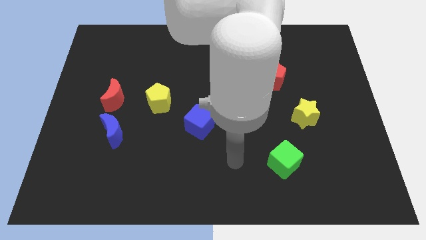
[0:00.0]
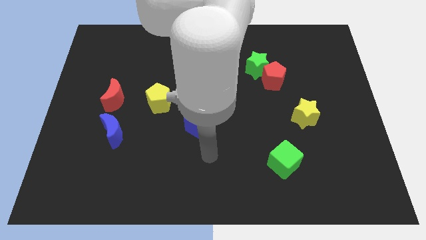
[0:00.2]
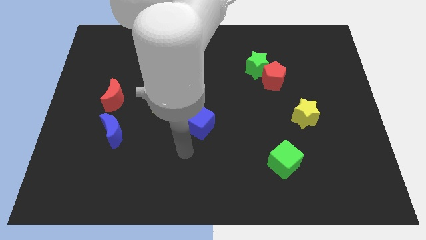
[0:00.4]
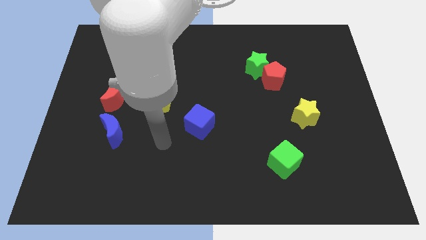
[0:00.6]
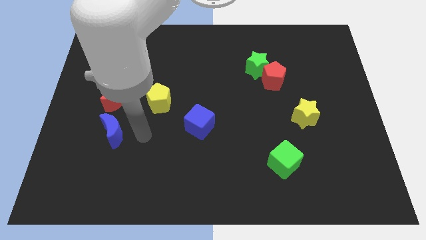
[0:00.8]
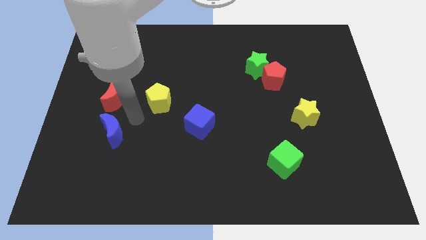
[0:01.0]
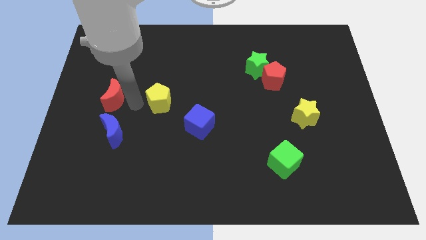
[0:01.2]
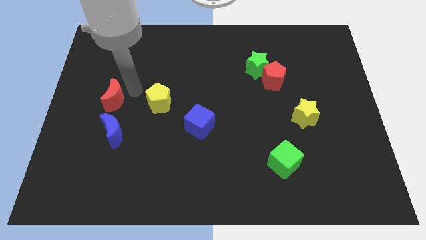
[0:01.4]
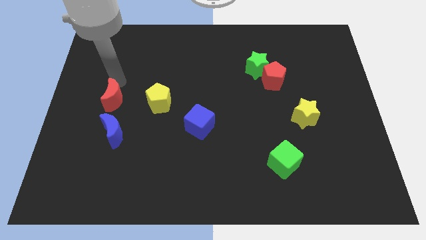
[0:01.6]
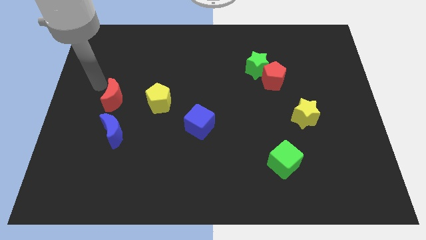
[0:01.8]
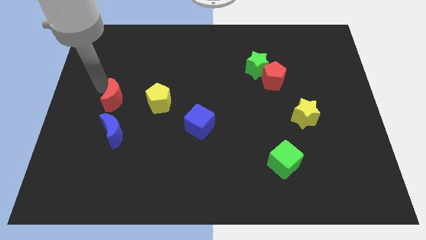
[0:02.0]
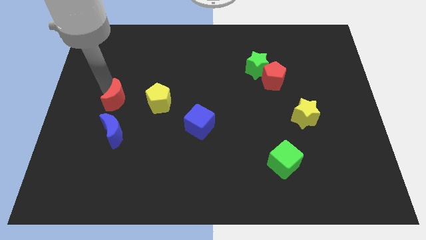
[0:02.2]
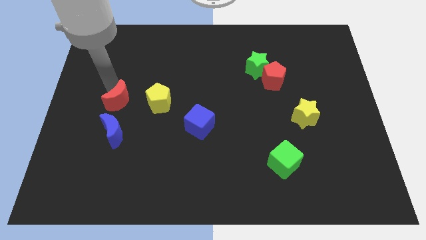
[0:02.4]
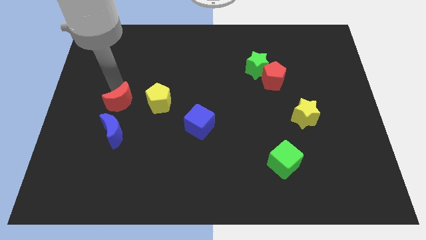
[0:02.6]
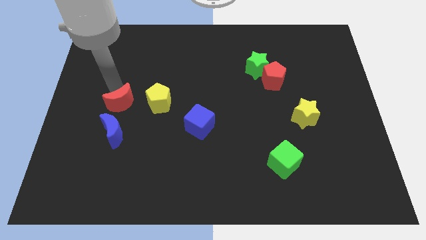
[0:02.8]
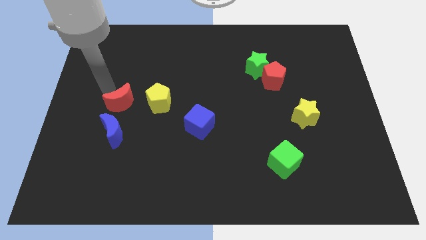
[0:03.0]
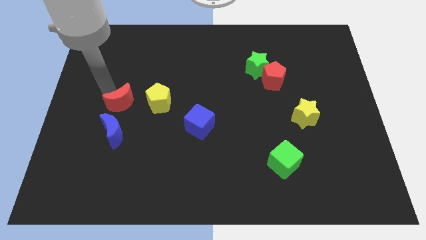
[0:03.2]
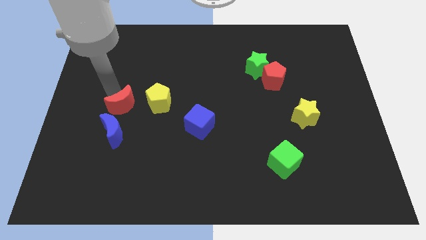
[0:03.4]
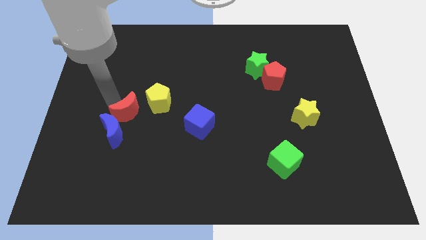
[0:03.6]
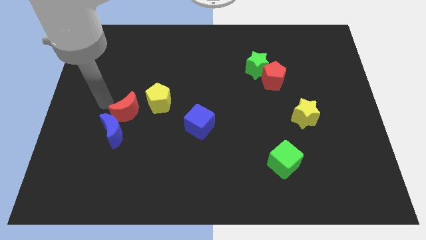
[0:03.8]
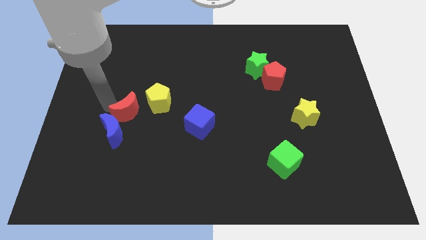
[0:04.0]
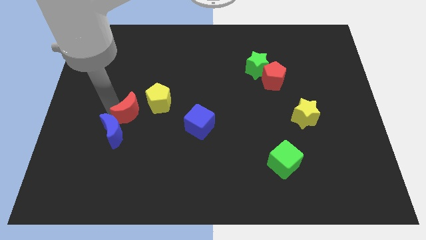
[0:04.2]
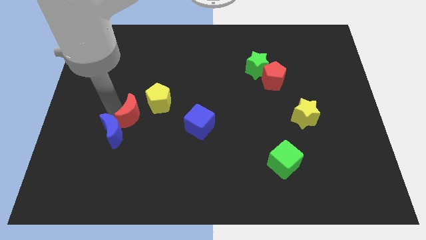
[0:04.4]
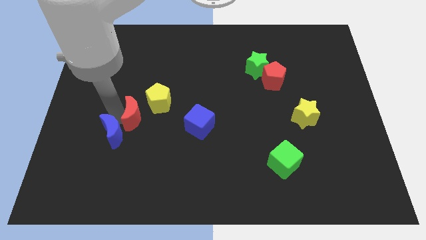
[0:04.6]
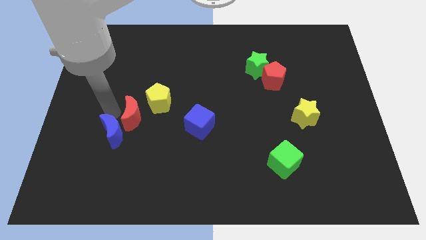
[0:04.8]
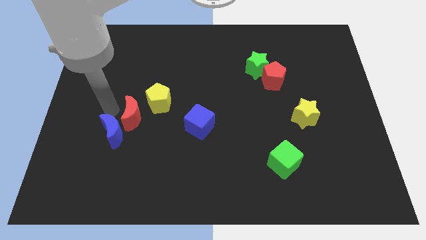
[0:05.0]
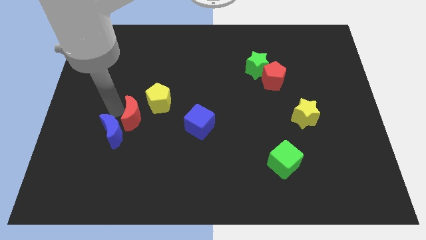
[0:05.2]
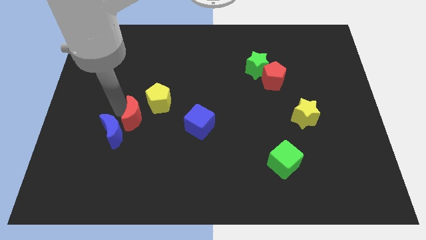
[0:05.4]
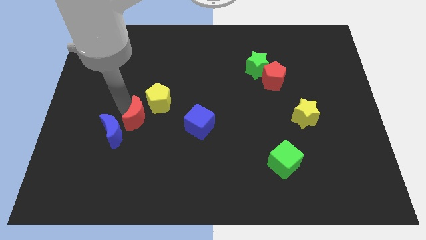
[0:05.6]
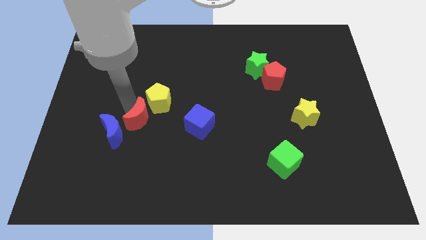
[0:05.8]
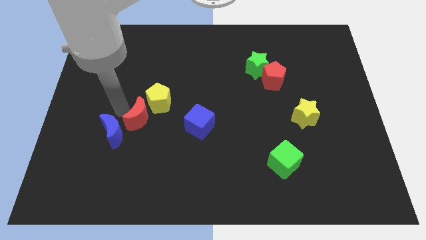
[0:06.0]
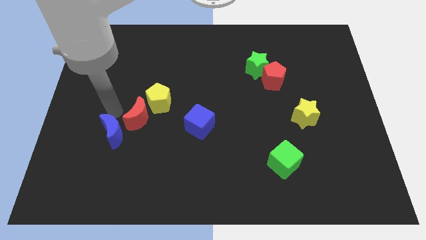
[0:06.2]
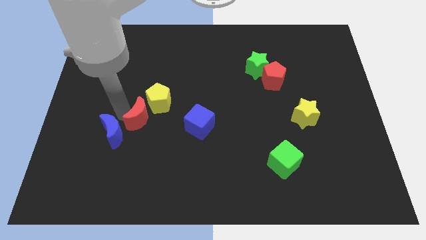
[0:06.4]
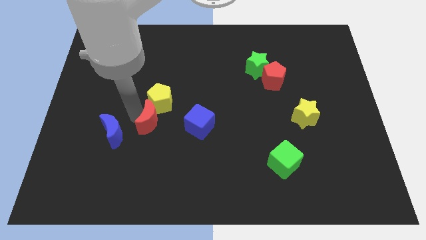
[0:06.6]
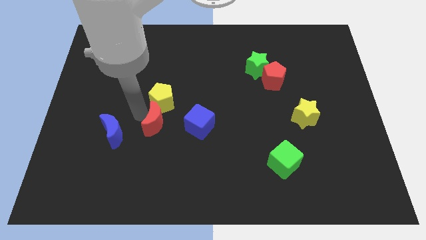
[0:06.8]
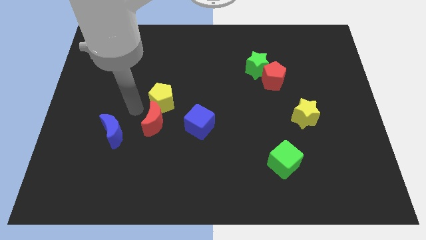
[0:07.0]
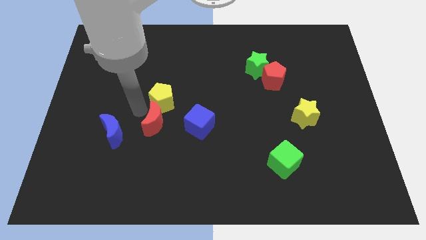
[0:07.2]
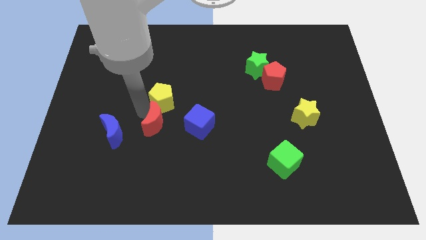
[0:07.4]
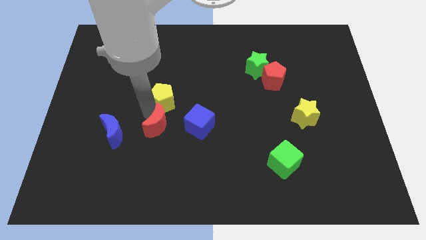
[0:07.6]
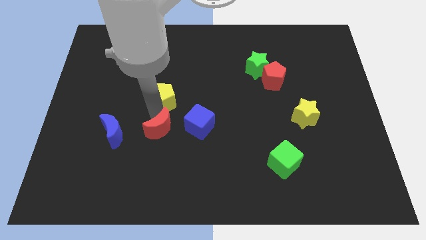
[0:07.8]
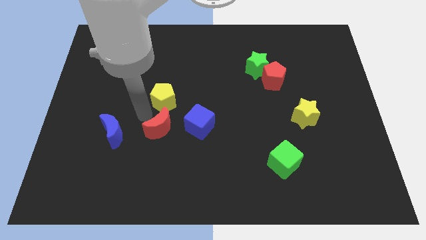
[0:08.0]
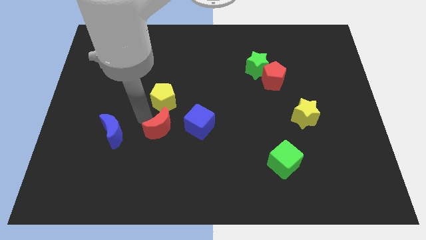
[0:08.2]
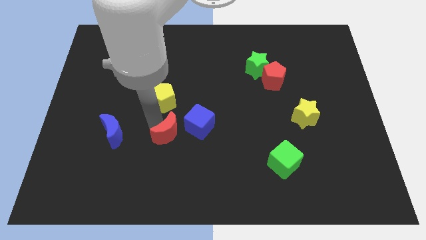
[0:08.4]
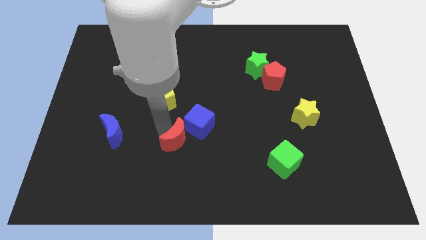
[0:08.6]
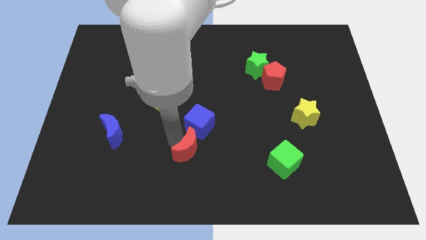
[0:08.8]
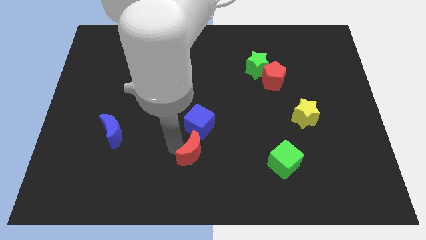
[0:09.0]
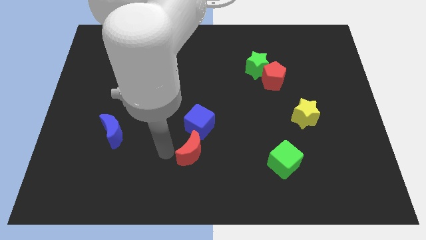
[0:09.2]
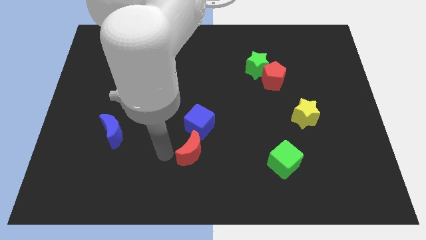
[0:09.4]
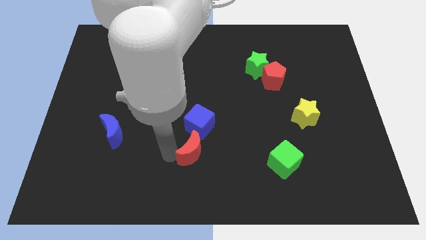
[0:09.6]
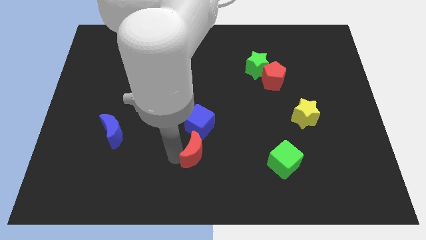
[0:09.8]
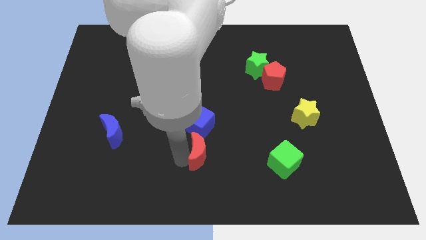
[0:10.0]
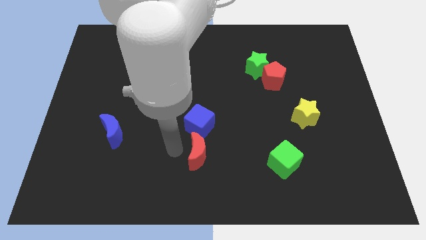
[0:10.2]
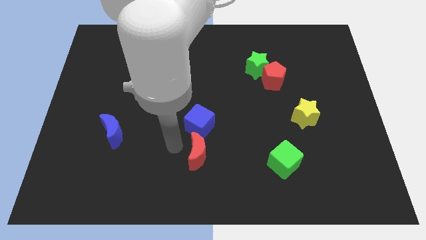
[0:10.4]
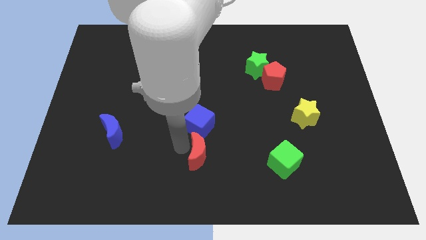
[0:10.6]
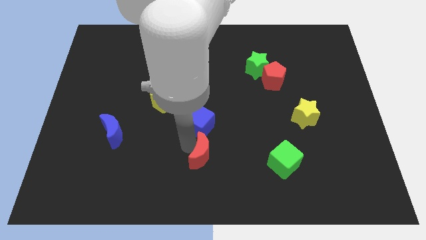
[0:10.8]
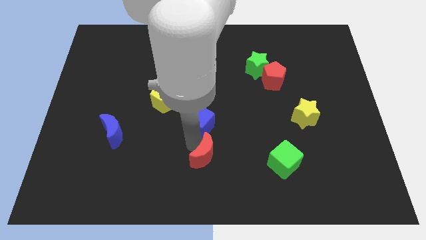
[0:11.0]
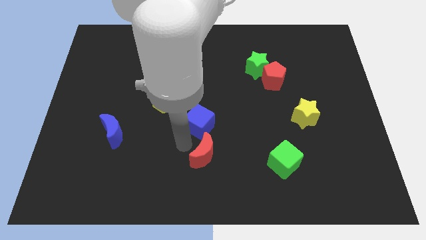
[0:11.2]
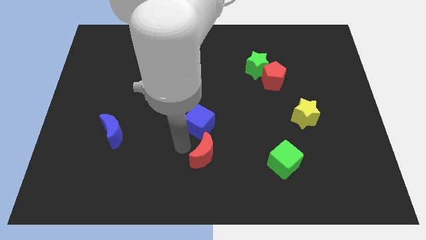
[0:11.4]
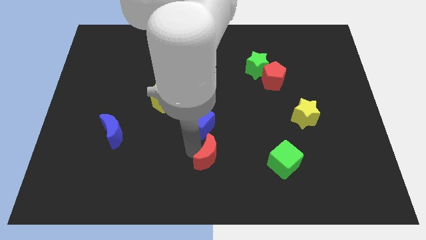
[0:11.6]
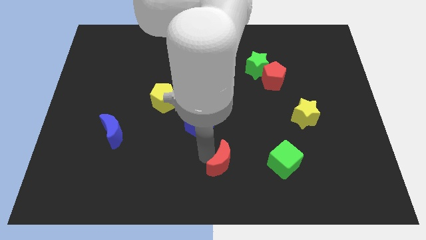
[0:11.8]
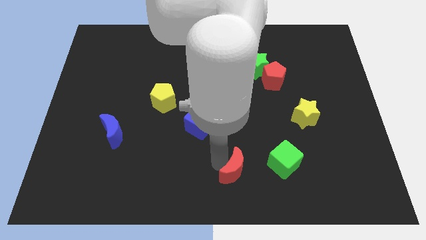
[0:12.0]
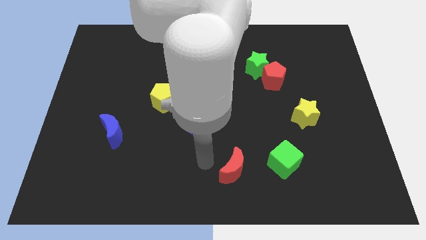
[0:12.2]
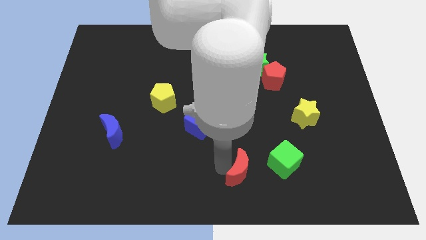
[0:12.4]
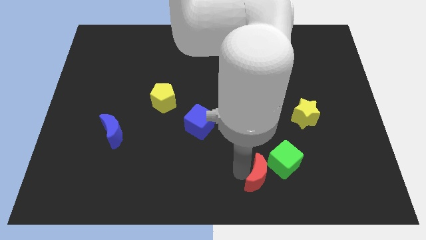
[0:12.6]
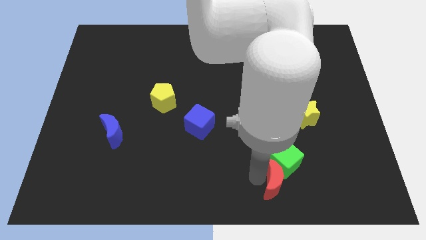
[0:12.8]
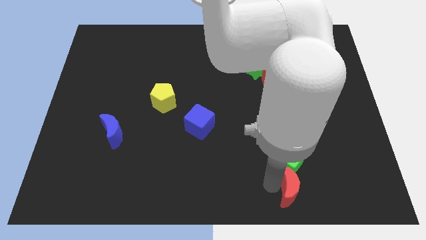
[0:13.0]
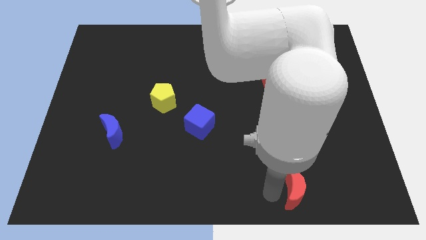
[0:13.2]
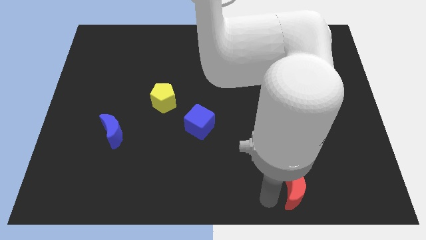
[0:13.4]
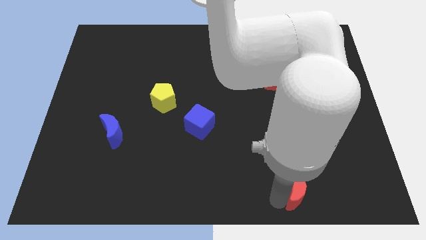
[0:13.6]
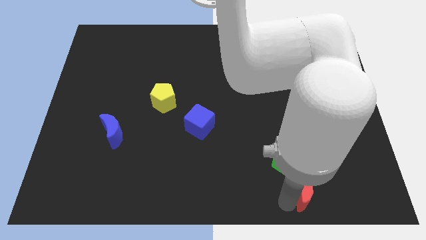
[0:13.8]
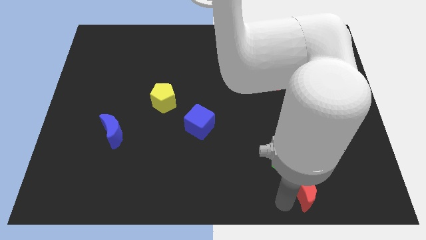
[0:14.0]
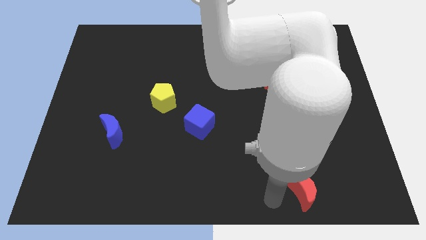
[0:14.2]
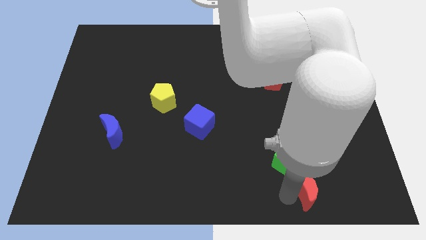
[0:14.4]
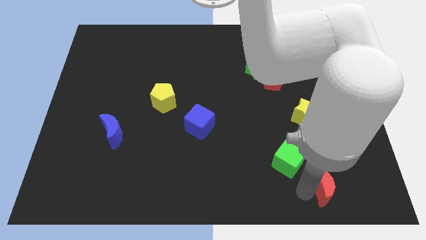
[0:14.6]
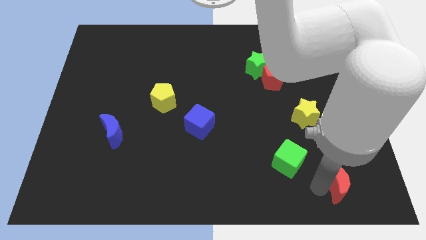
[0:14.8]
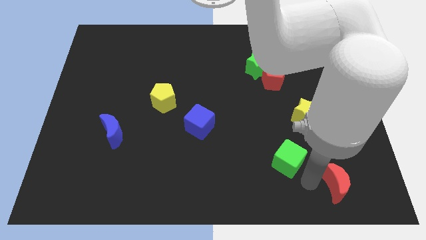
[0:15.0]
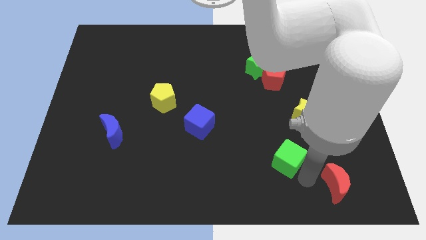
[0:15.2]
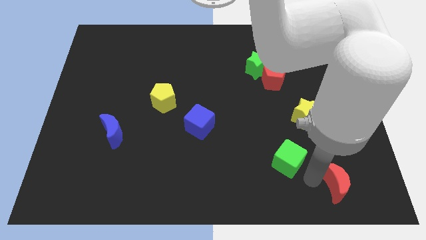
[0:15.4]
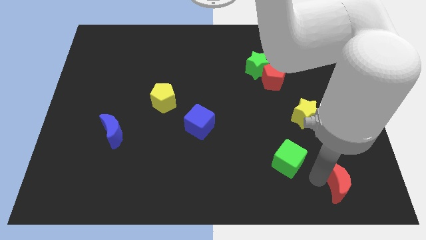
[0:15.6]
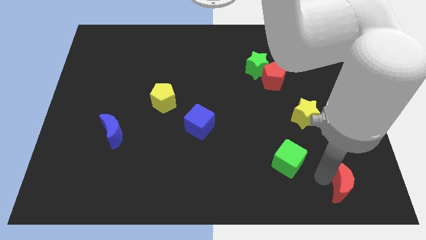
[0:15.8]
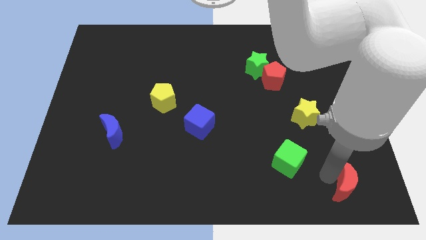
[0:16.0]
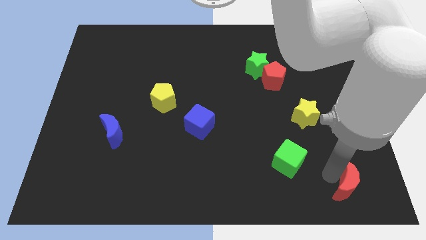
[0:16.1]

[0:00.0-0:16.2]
move the red moon to the bottom right corner
